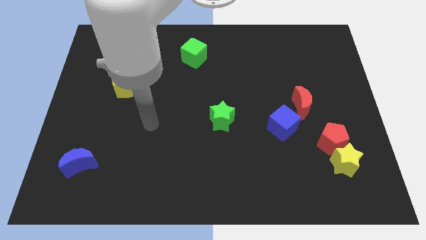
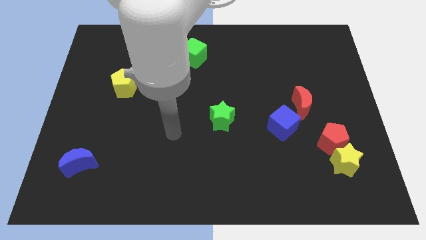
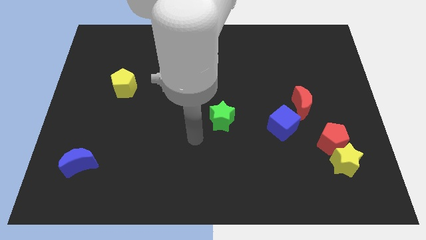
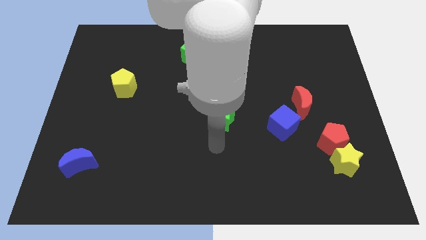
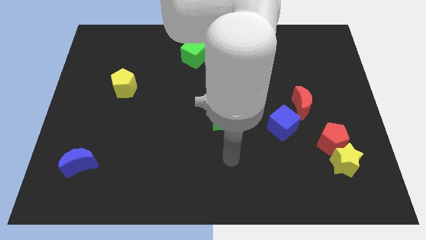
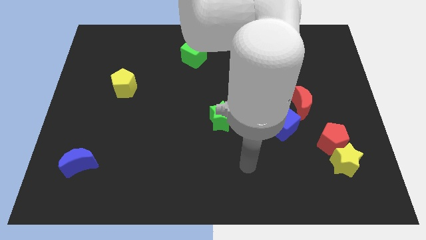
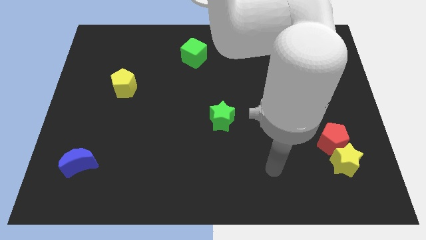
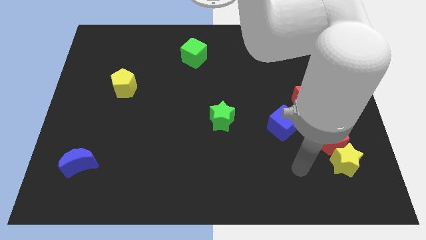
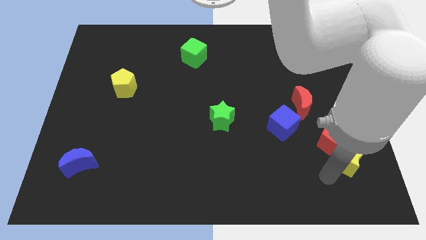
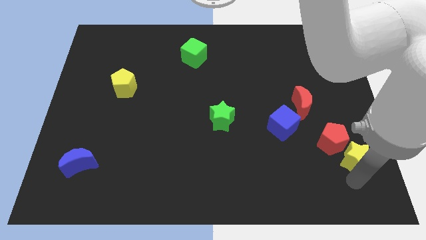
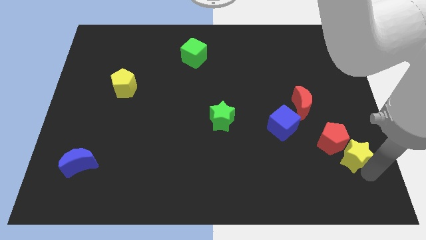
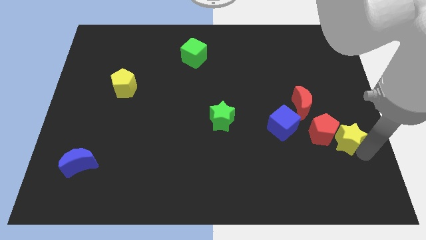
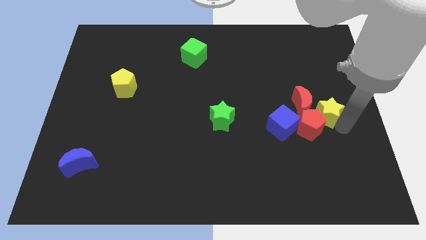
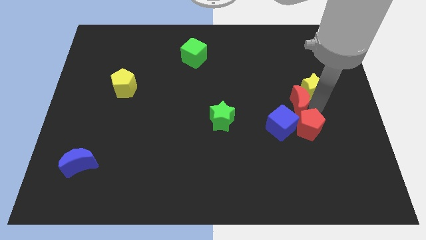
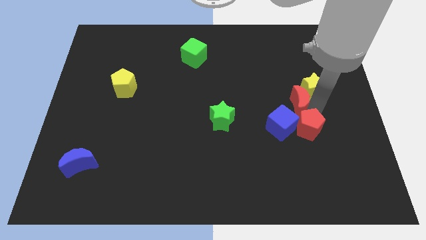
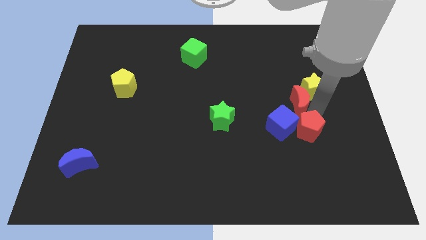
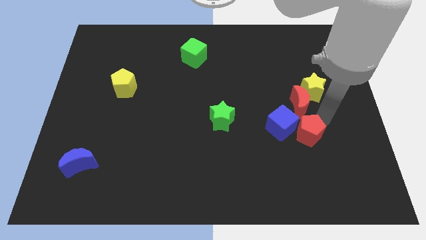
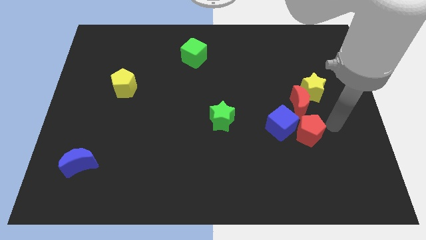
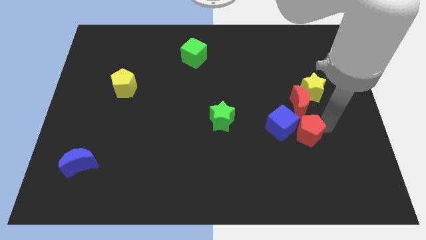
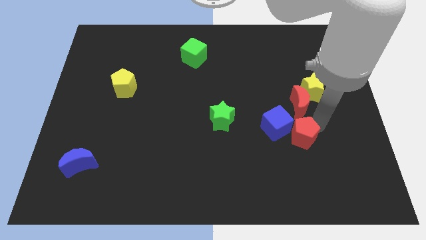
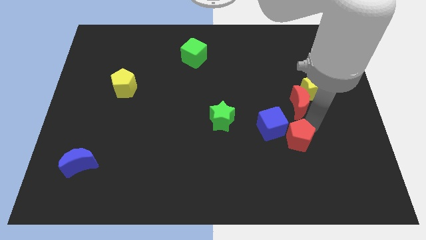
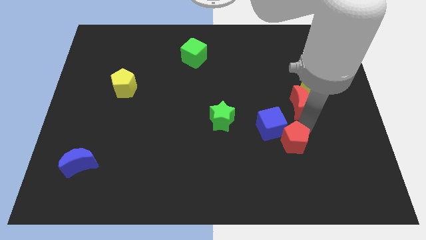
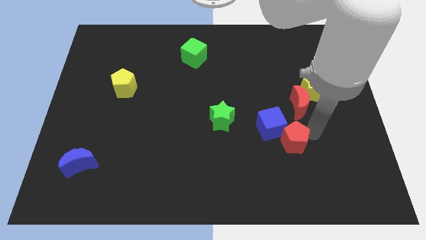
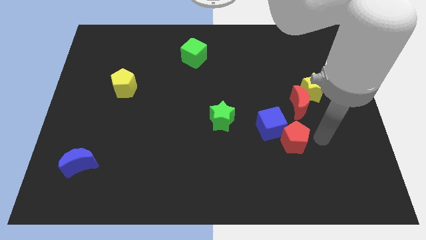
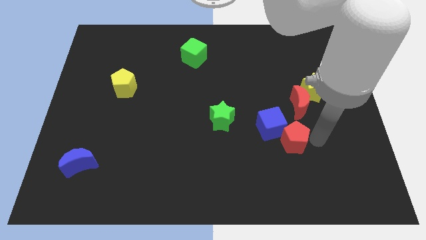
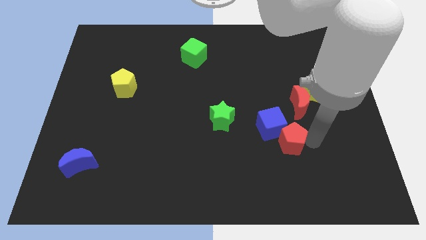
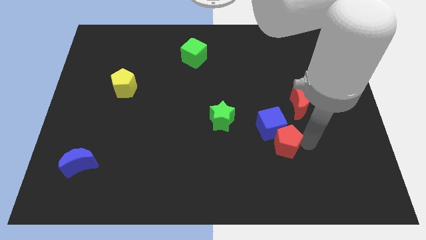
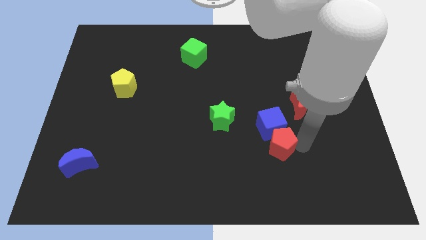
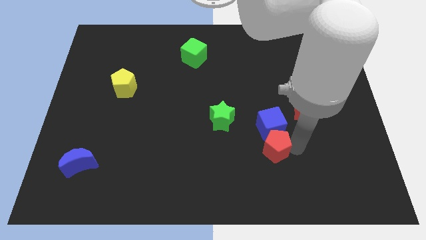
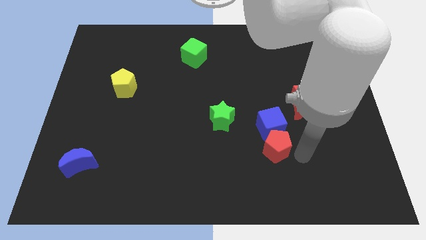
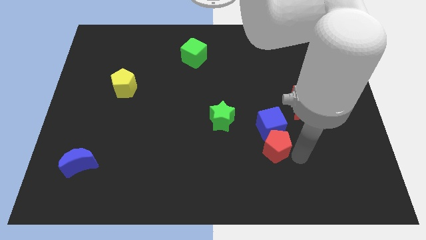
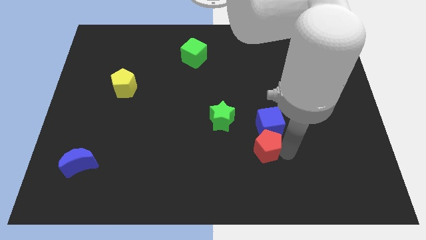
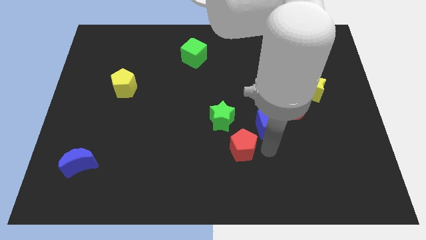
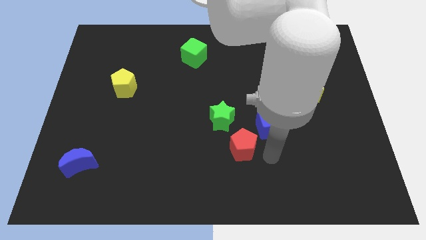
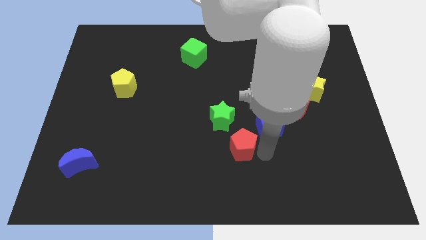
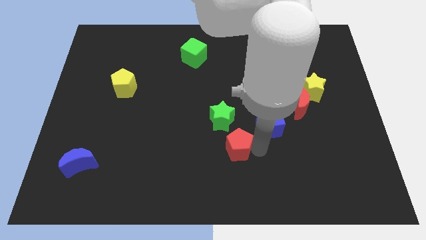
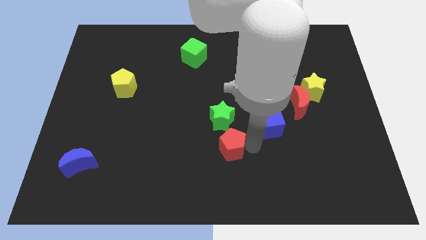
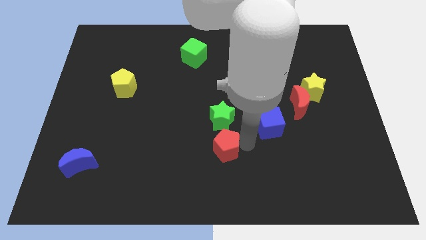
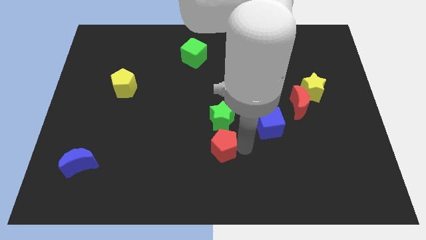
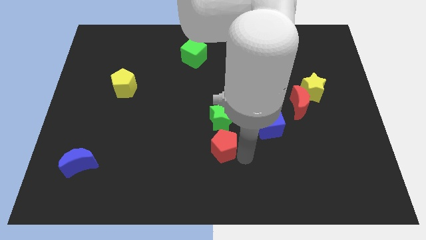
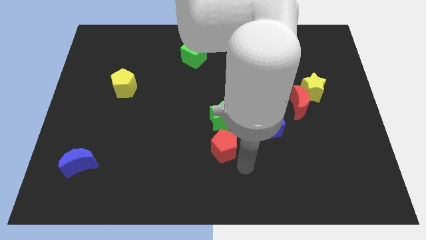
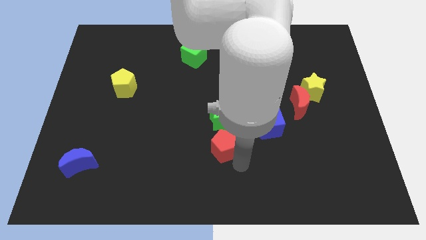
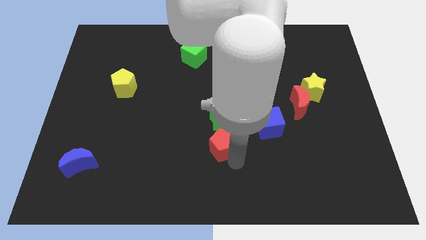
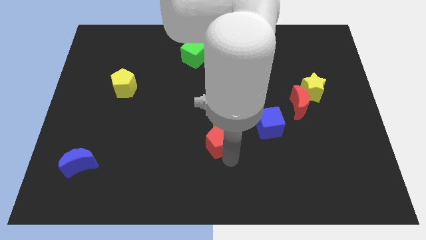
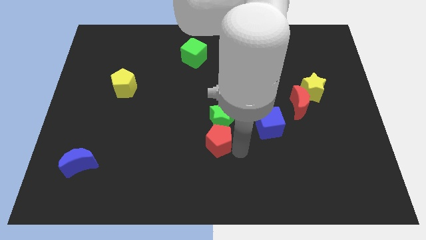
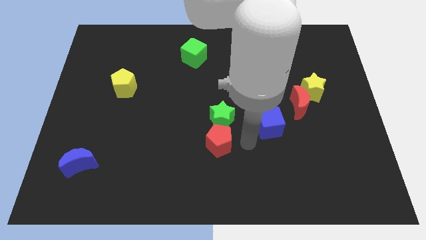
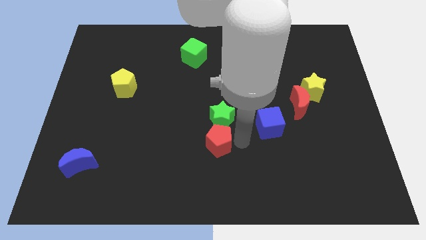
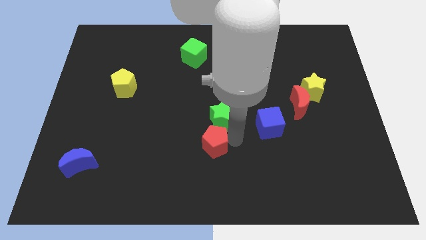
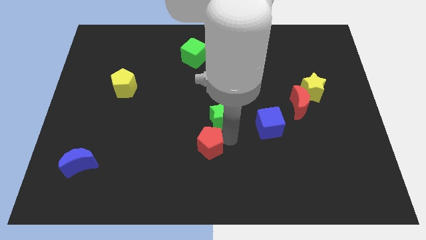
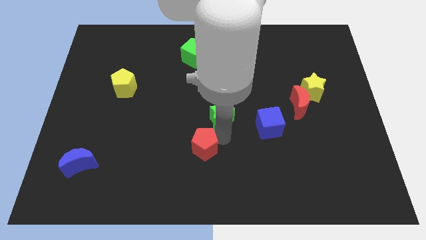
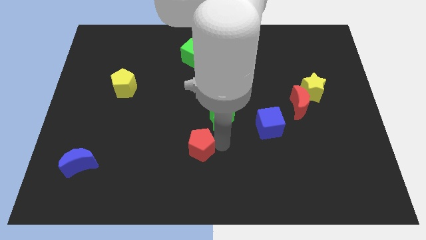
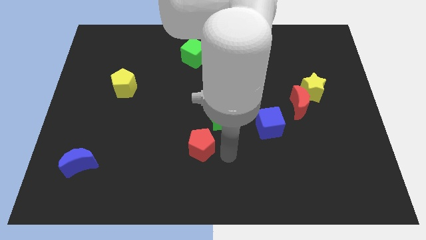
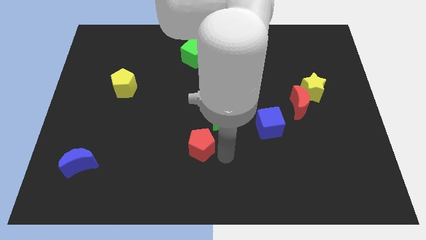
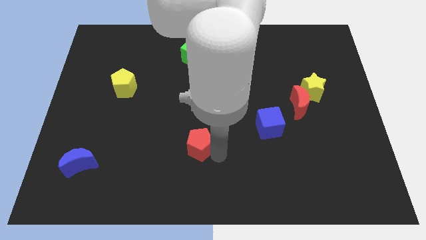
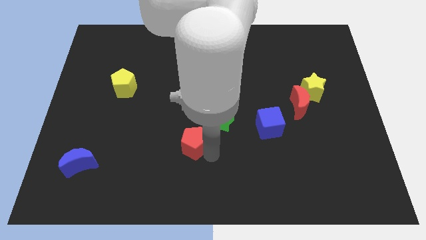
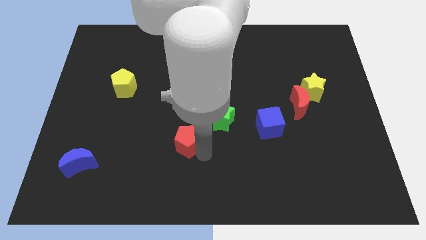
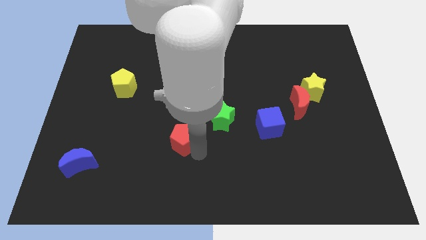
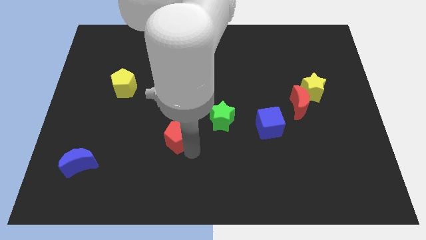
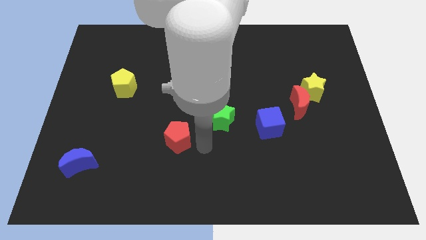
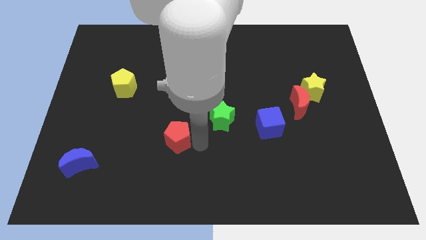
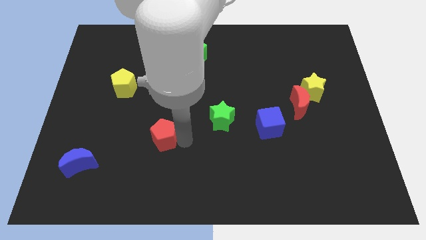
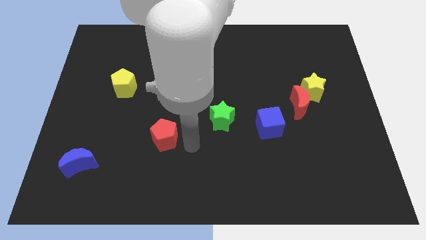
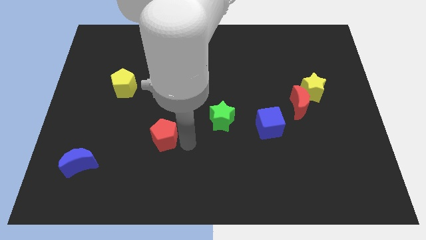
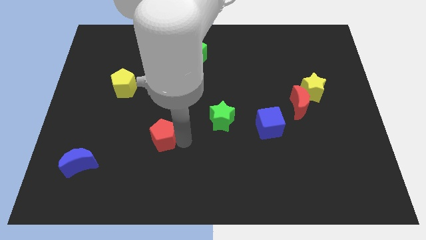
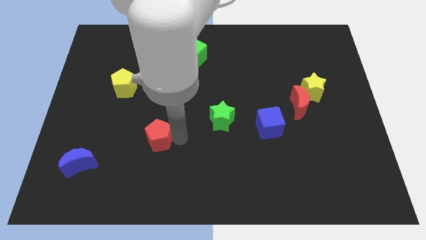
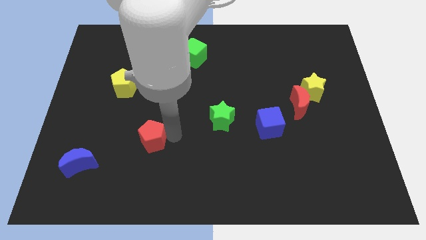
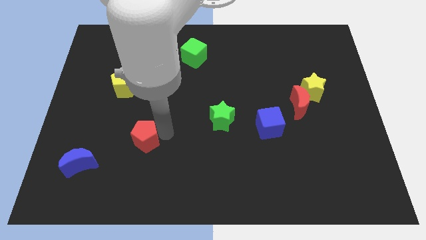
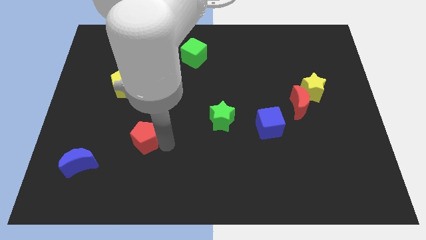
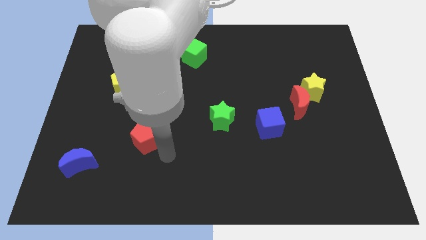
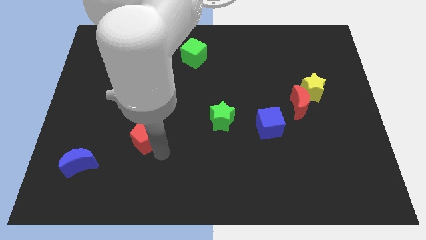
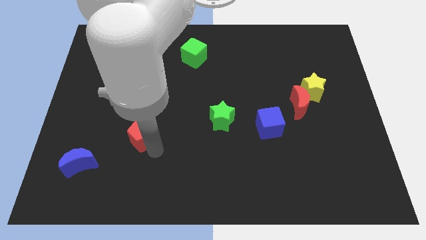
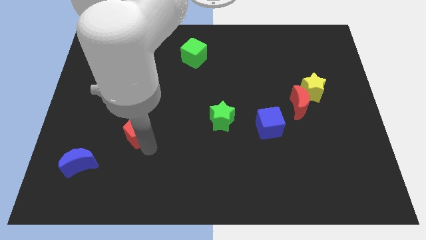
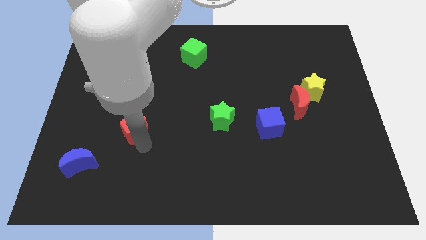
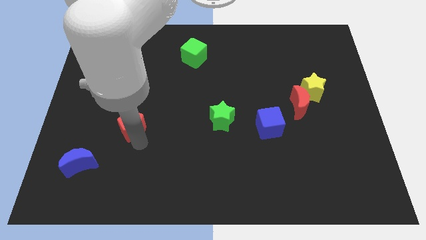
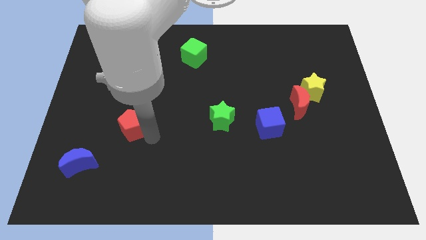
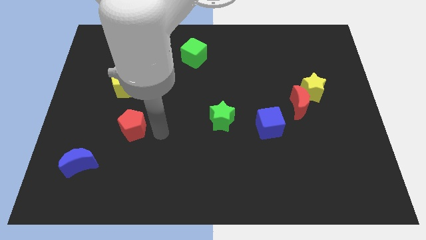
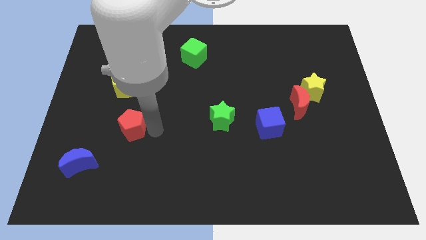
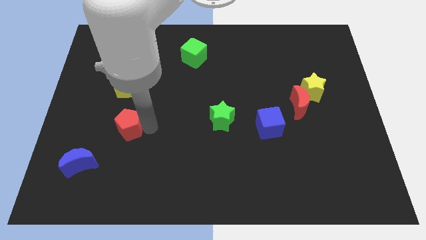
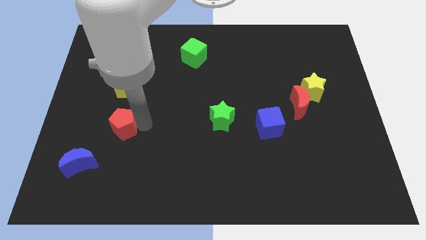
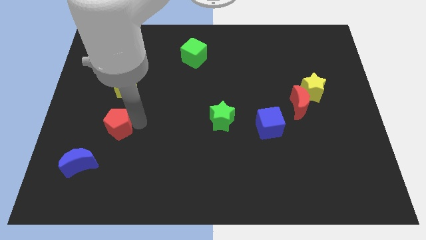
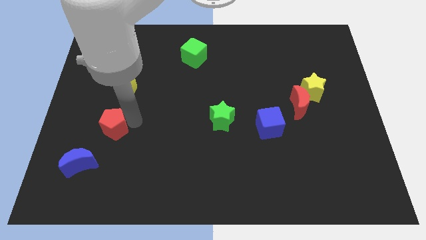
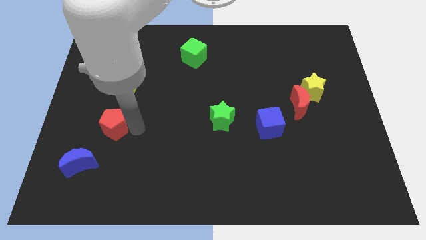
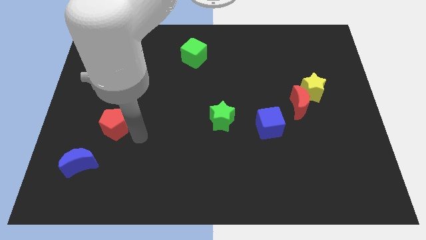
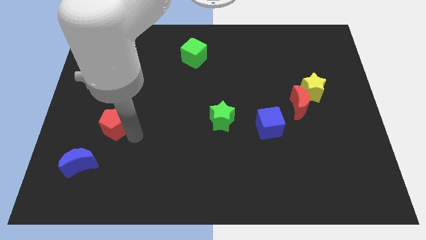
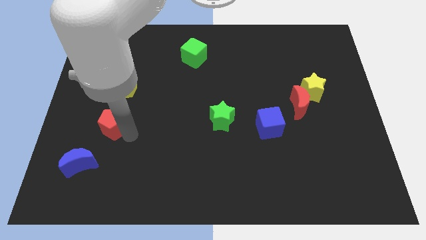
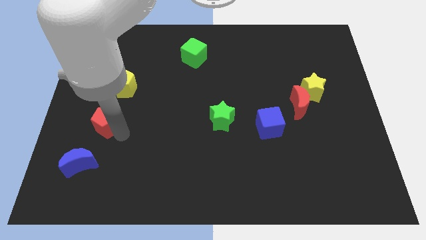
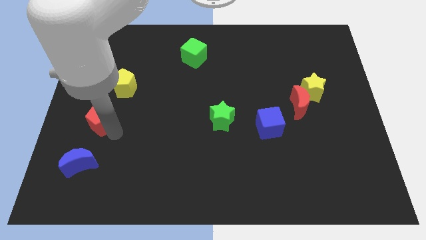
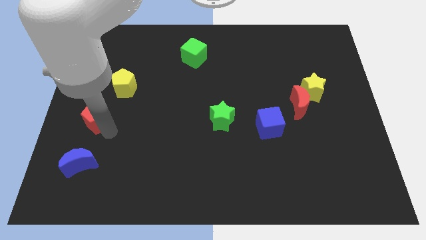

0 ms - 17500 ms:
slide the red pentagon to the left side
